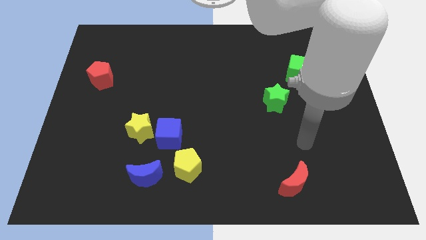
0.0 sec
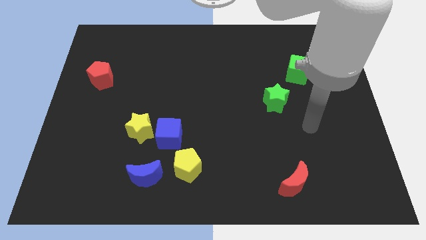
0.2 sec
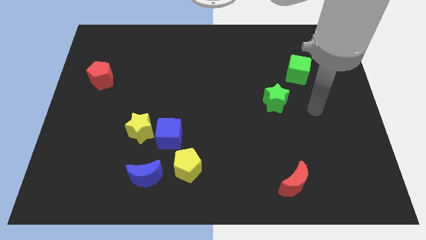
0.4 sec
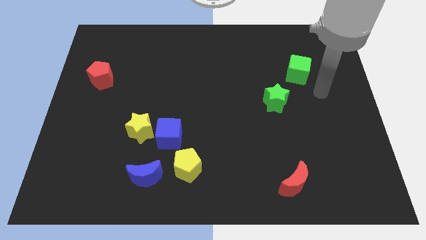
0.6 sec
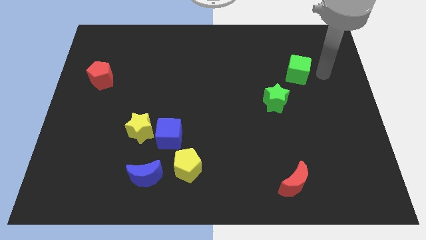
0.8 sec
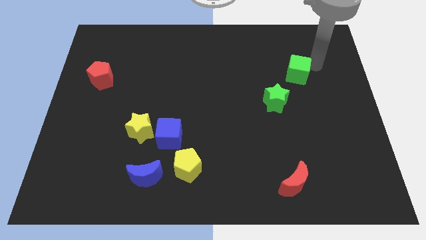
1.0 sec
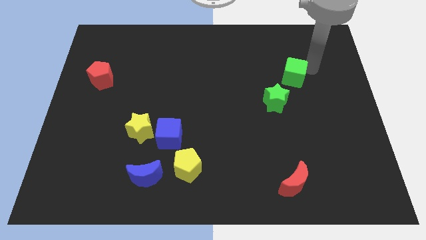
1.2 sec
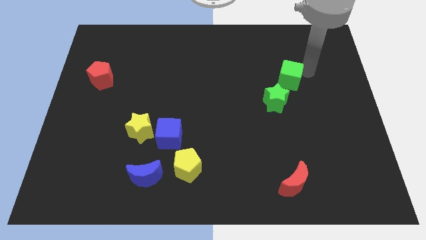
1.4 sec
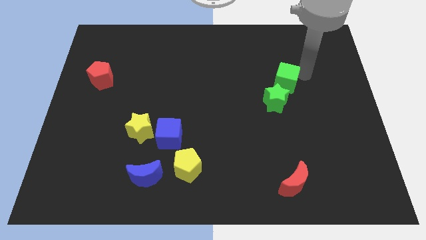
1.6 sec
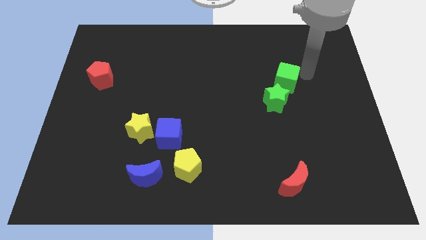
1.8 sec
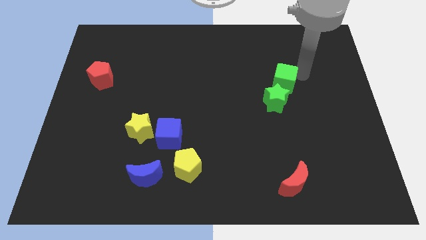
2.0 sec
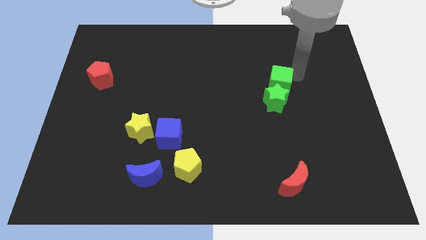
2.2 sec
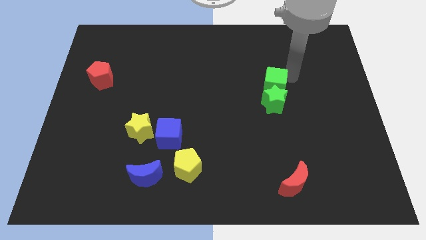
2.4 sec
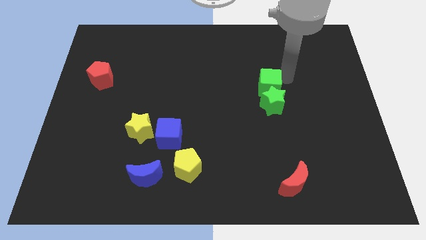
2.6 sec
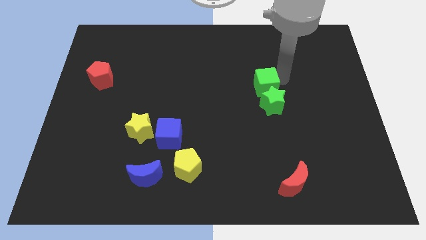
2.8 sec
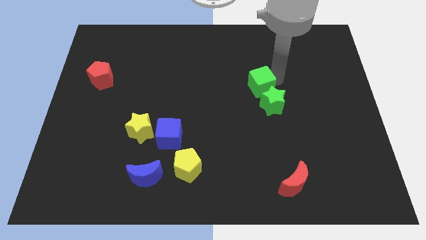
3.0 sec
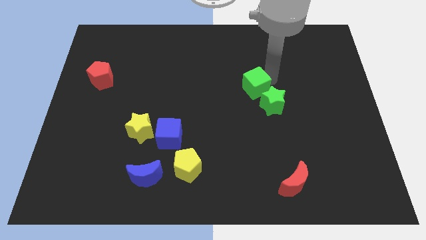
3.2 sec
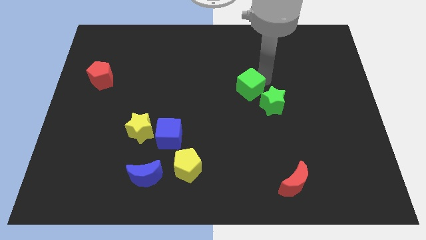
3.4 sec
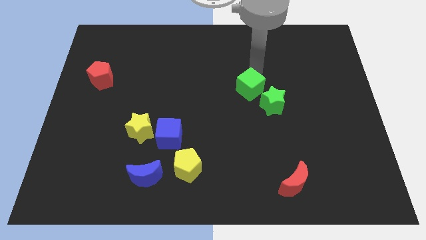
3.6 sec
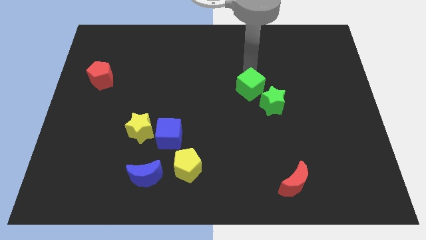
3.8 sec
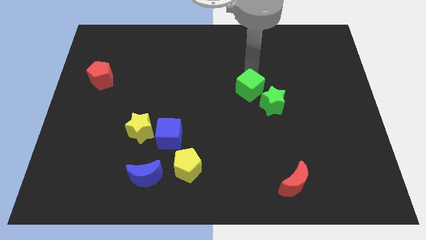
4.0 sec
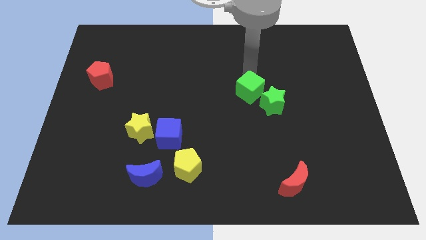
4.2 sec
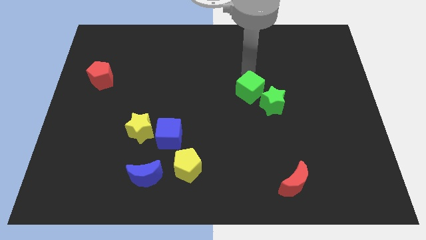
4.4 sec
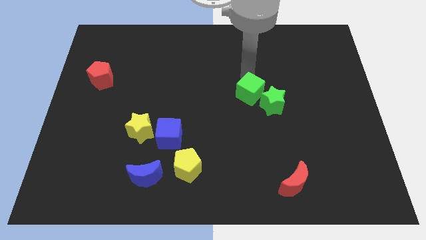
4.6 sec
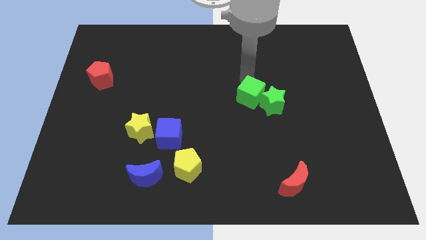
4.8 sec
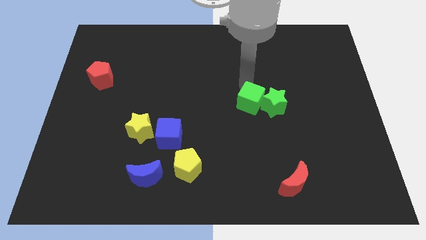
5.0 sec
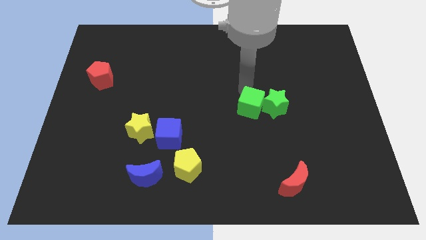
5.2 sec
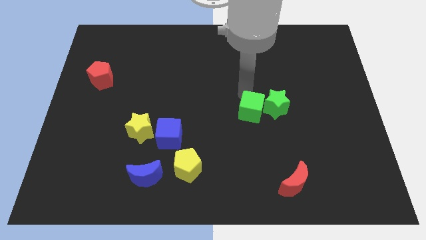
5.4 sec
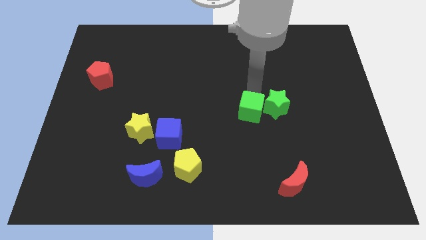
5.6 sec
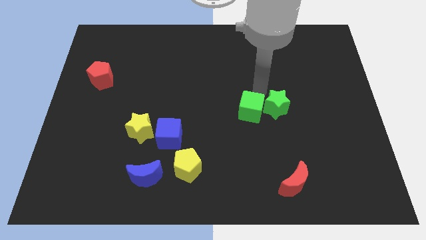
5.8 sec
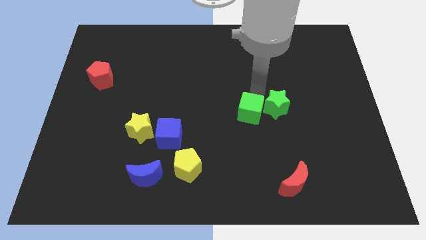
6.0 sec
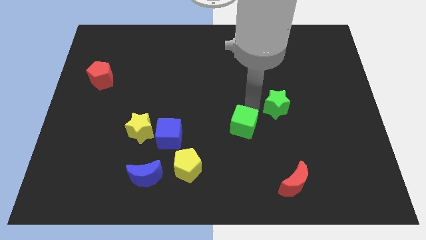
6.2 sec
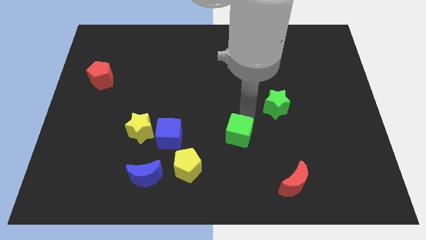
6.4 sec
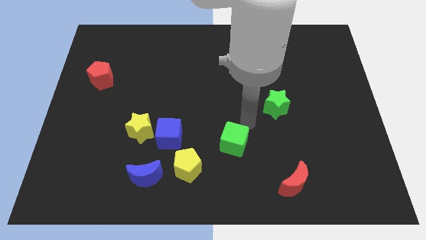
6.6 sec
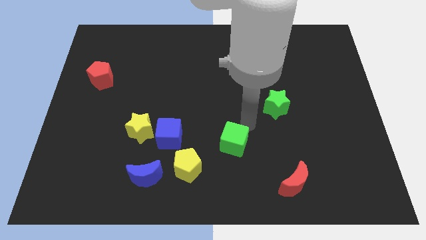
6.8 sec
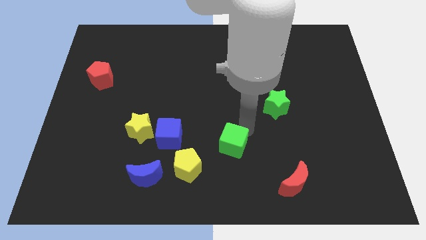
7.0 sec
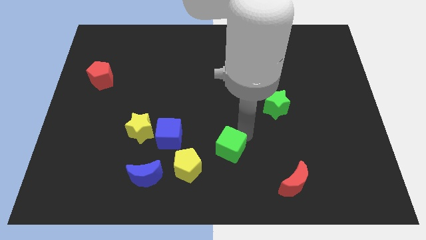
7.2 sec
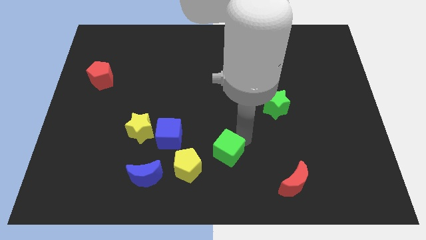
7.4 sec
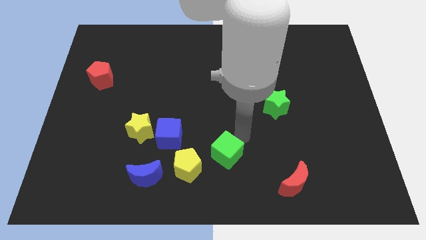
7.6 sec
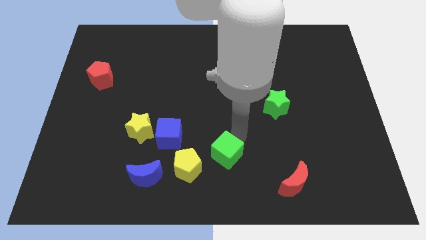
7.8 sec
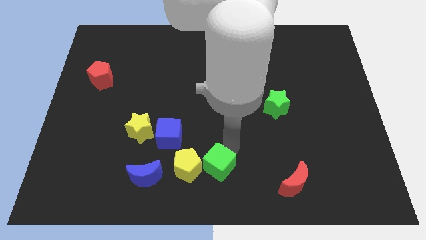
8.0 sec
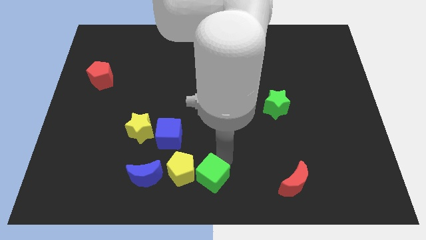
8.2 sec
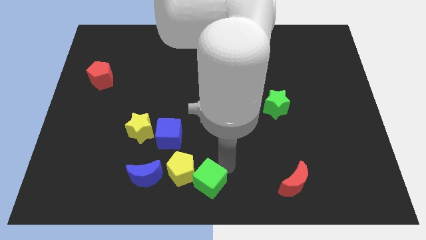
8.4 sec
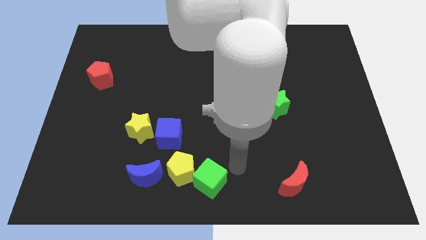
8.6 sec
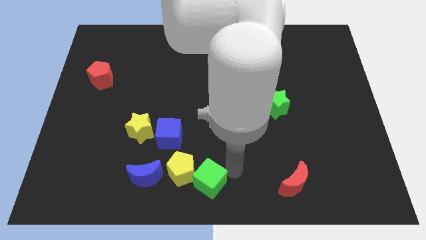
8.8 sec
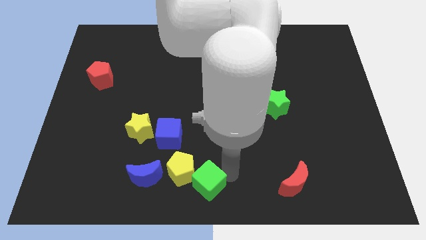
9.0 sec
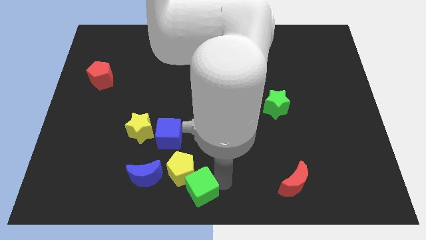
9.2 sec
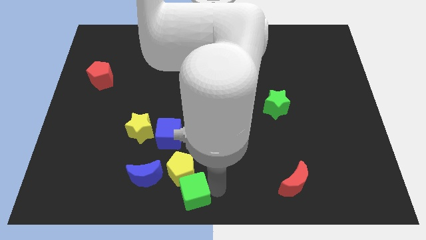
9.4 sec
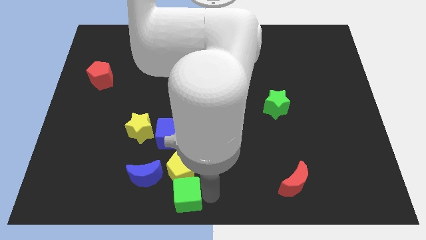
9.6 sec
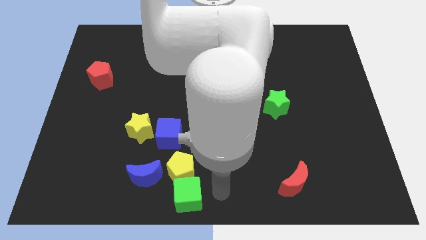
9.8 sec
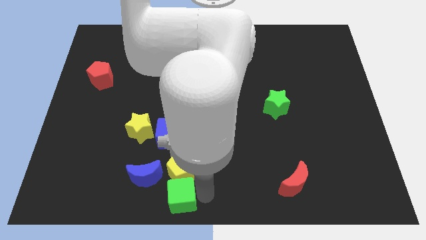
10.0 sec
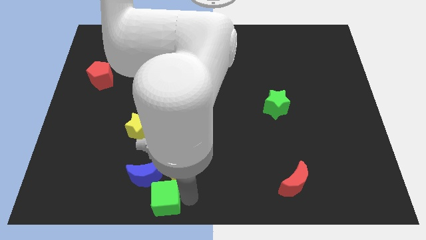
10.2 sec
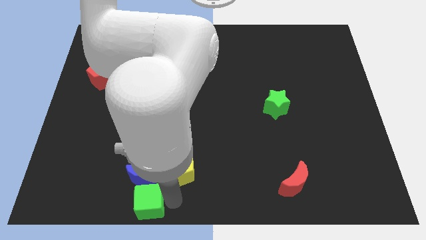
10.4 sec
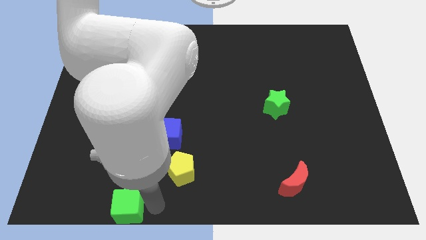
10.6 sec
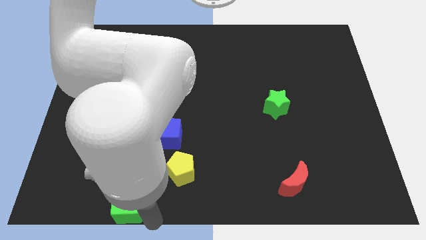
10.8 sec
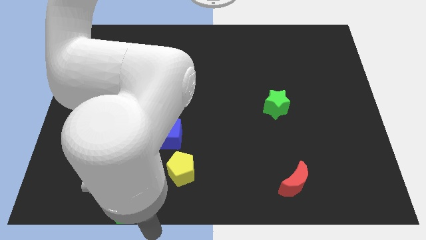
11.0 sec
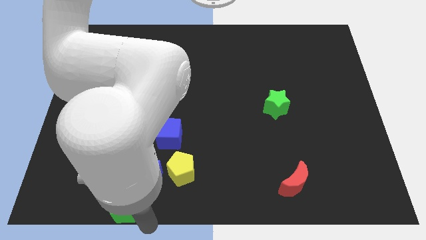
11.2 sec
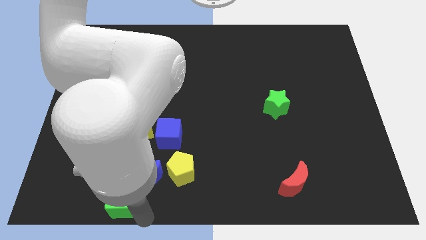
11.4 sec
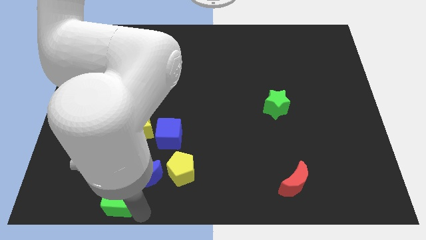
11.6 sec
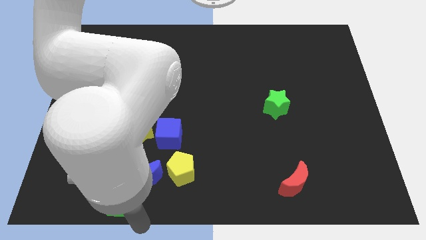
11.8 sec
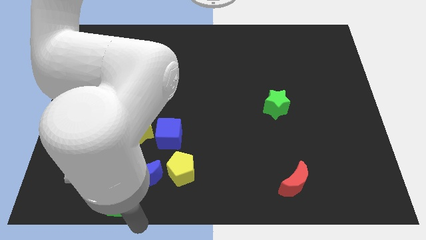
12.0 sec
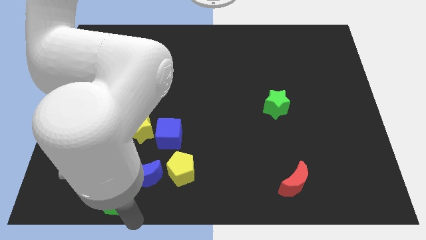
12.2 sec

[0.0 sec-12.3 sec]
push the green cube just left of the blue moon

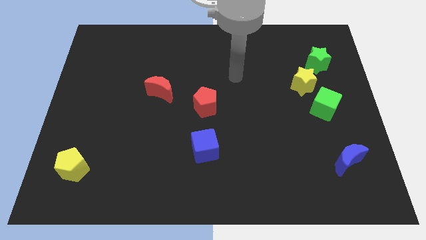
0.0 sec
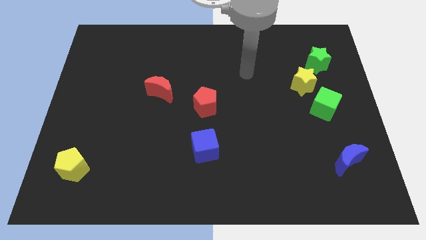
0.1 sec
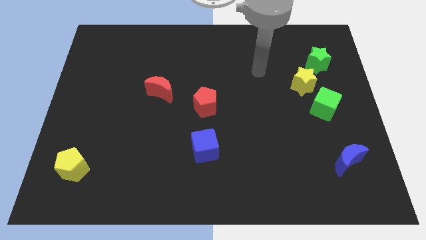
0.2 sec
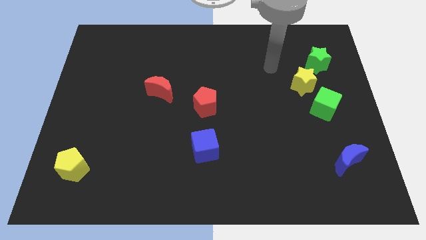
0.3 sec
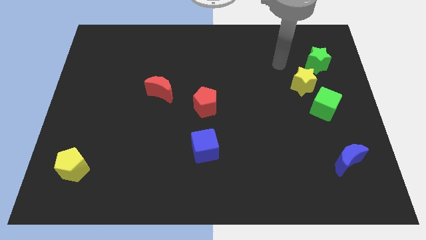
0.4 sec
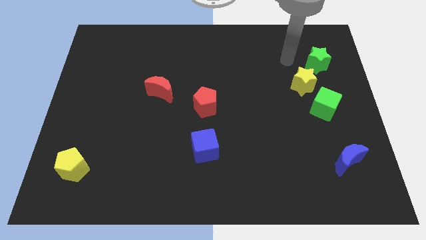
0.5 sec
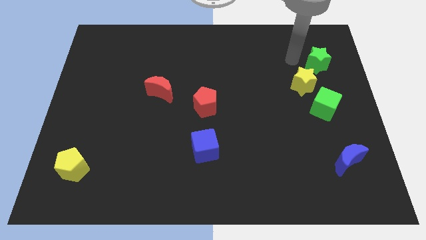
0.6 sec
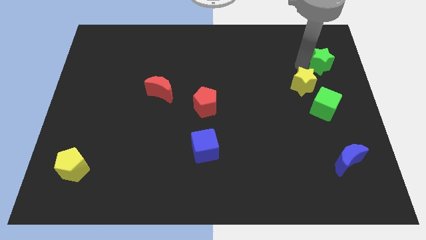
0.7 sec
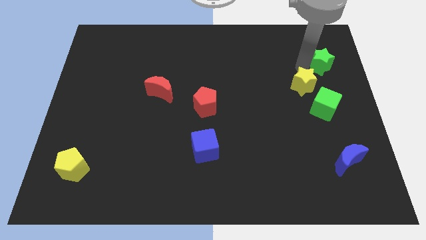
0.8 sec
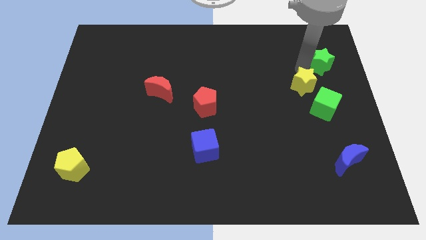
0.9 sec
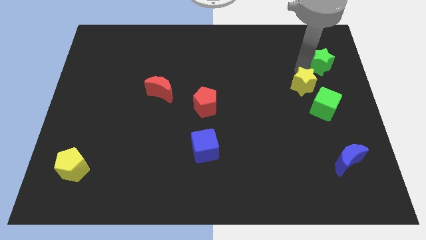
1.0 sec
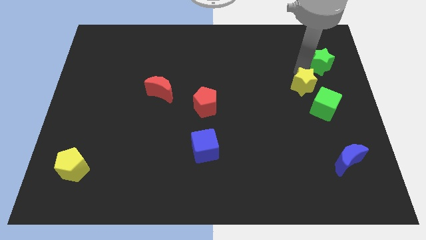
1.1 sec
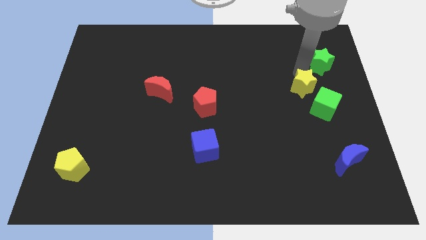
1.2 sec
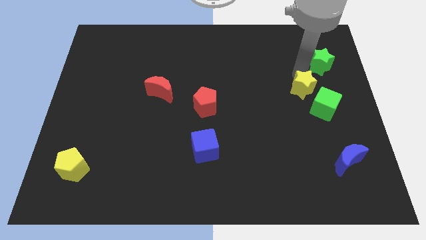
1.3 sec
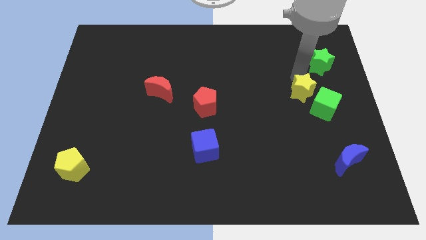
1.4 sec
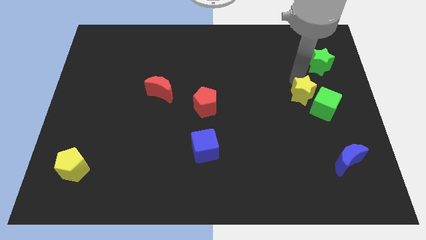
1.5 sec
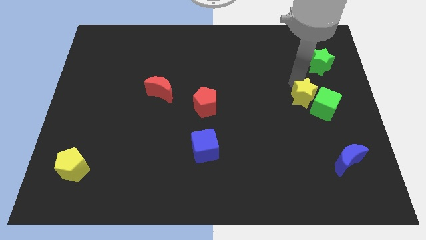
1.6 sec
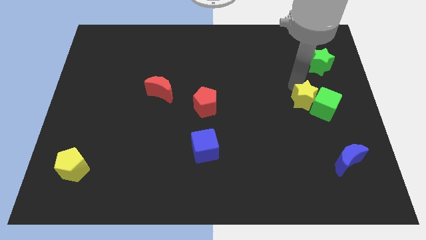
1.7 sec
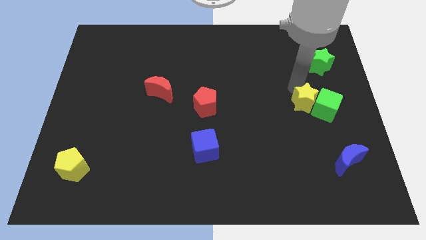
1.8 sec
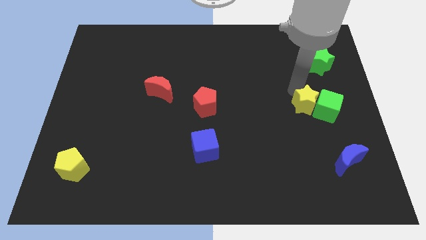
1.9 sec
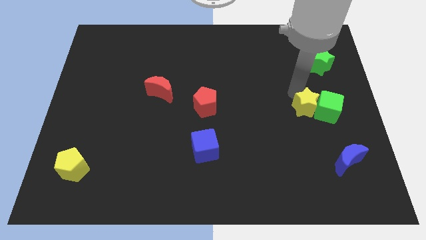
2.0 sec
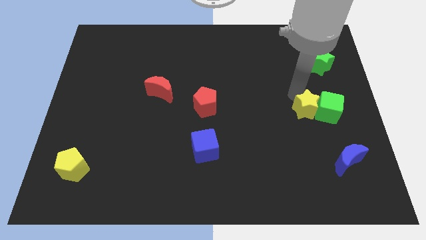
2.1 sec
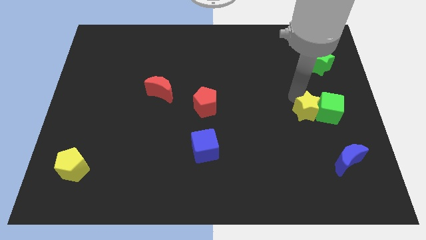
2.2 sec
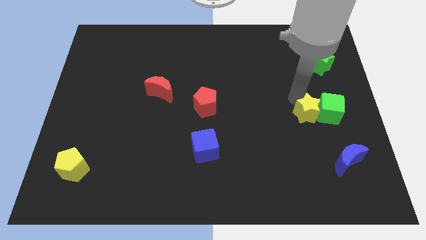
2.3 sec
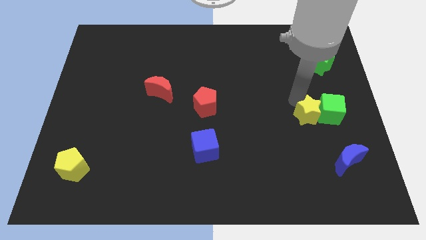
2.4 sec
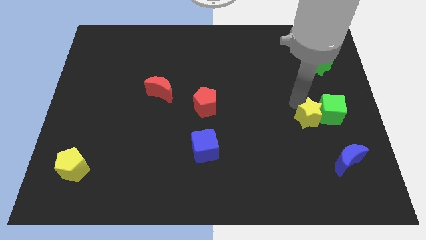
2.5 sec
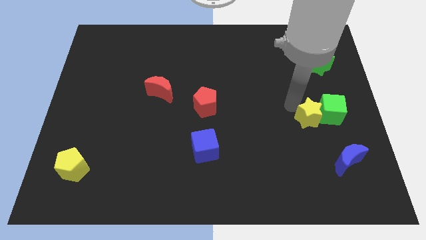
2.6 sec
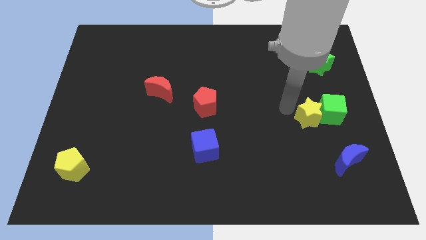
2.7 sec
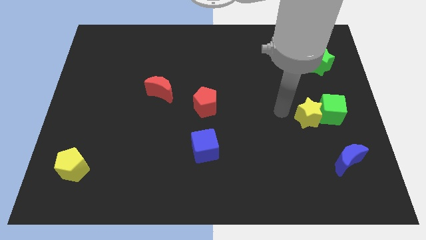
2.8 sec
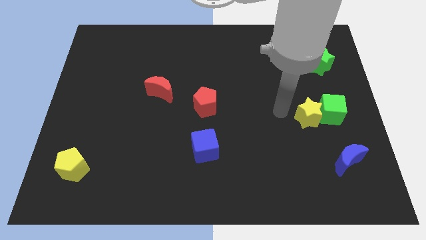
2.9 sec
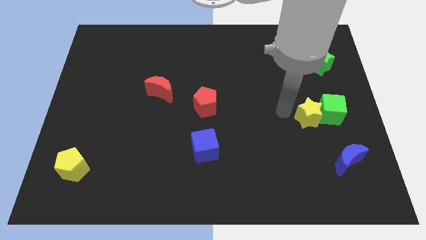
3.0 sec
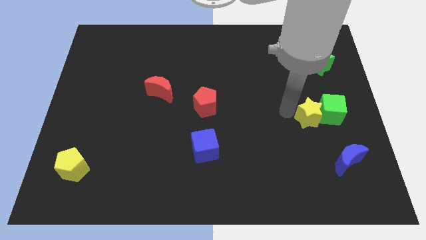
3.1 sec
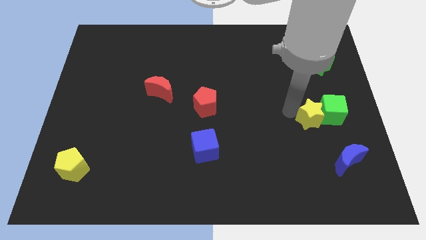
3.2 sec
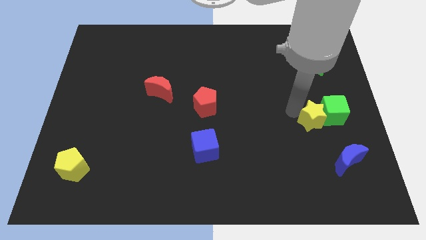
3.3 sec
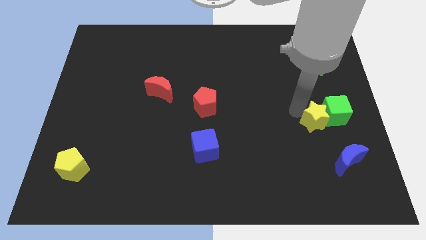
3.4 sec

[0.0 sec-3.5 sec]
push the yellow star to the top side of the blue moon
